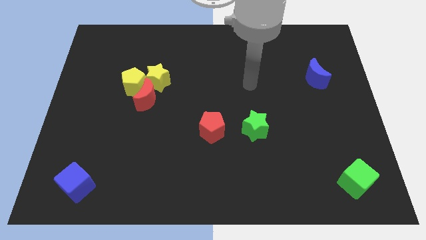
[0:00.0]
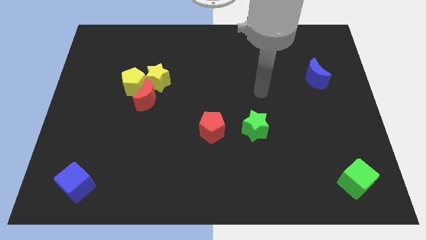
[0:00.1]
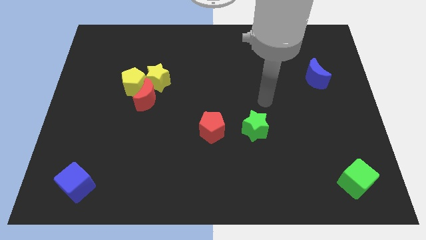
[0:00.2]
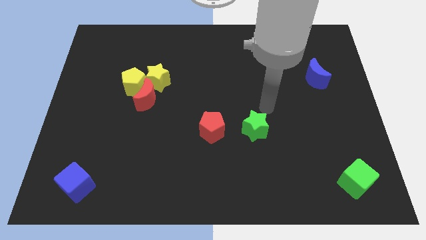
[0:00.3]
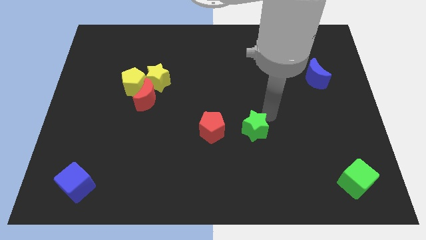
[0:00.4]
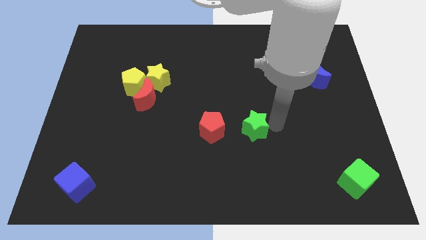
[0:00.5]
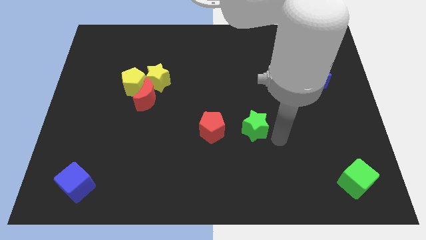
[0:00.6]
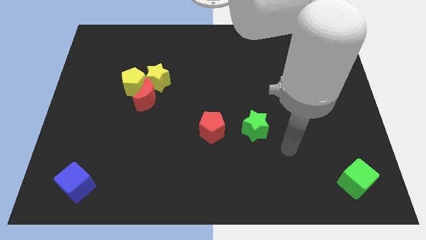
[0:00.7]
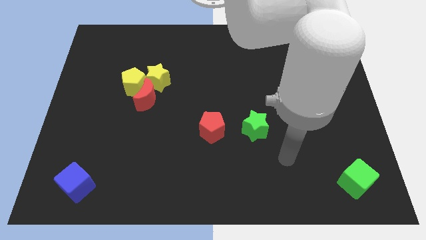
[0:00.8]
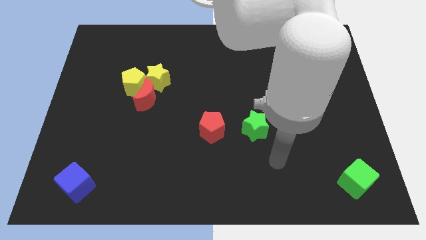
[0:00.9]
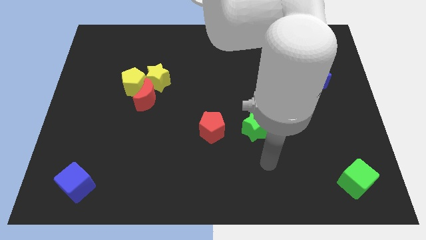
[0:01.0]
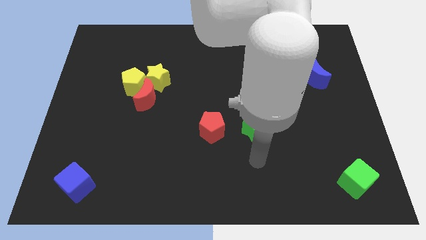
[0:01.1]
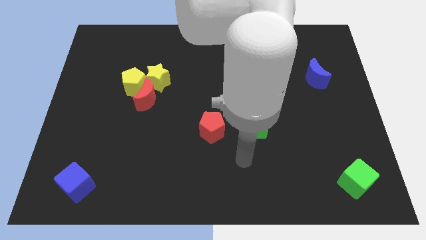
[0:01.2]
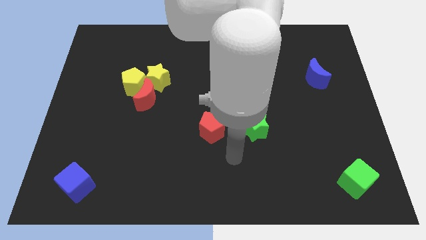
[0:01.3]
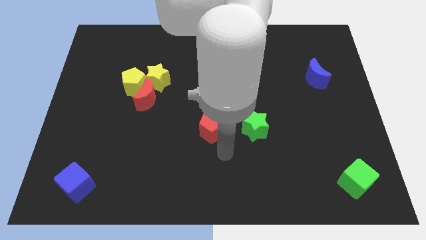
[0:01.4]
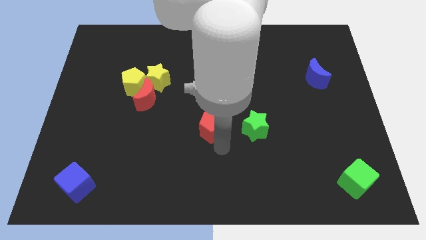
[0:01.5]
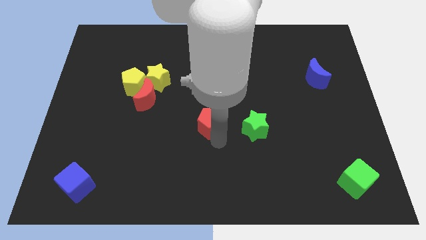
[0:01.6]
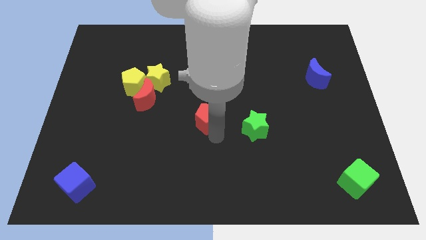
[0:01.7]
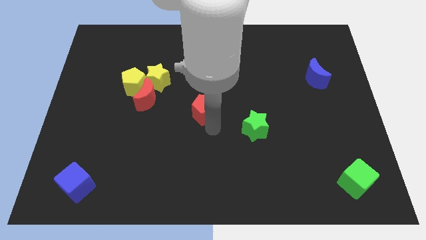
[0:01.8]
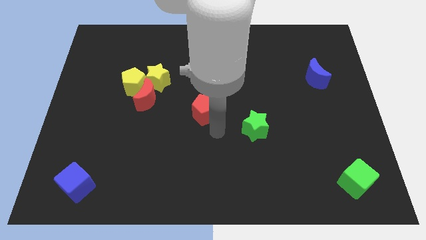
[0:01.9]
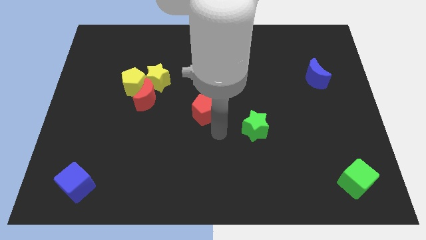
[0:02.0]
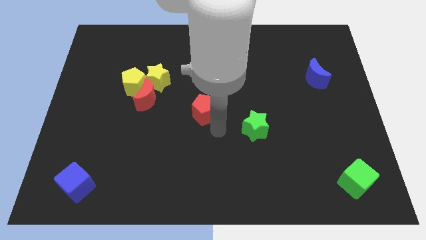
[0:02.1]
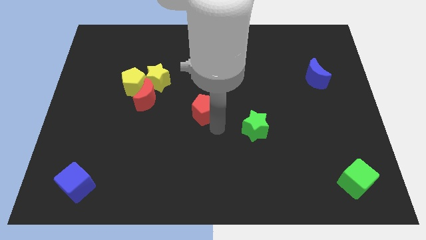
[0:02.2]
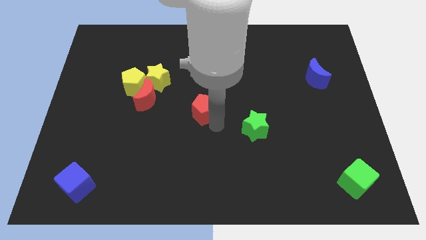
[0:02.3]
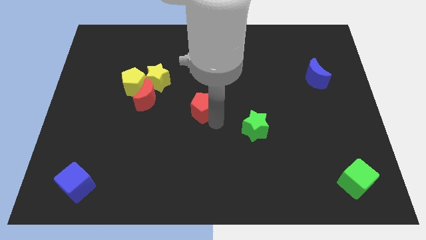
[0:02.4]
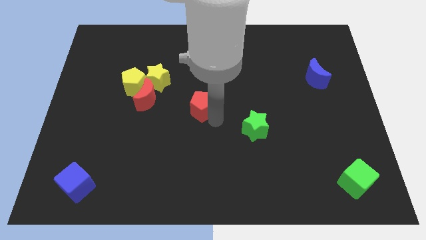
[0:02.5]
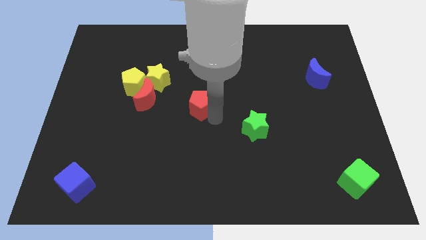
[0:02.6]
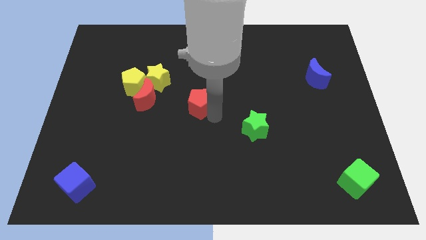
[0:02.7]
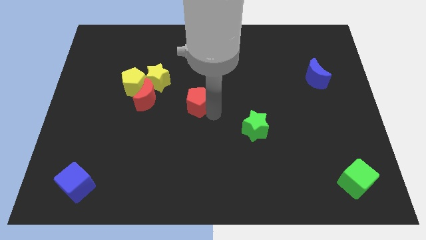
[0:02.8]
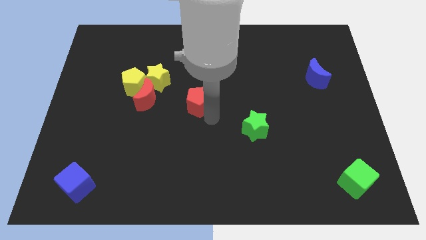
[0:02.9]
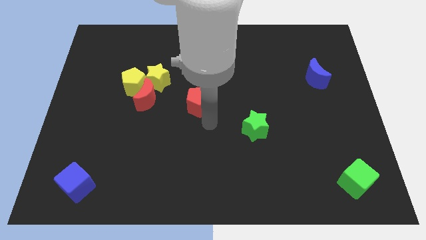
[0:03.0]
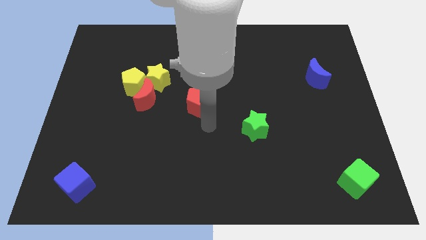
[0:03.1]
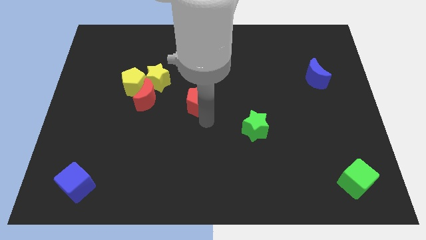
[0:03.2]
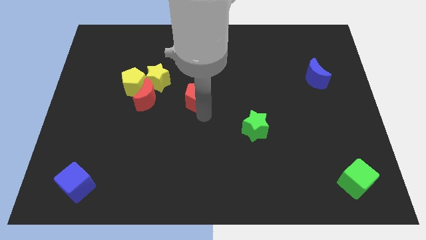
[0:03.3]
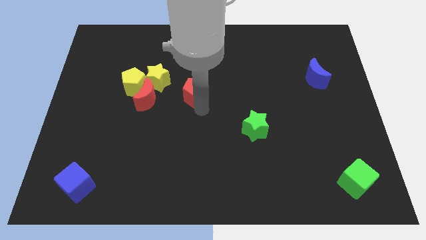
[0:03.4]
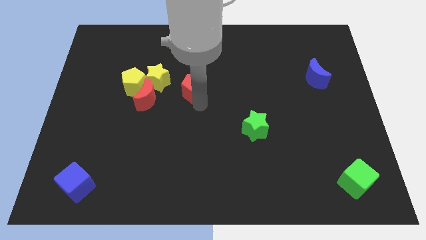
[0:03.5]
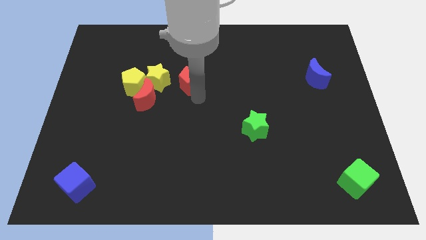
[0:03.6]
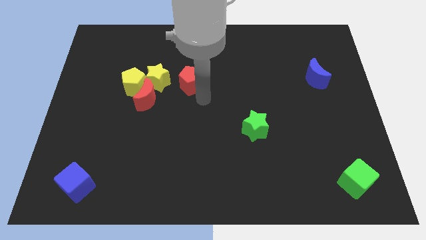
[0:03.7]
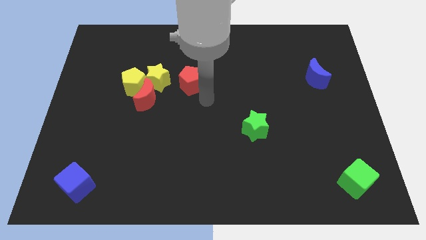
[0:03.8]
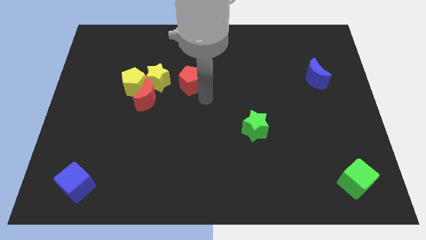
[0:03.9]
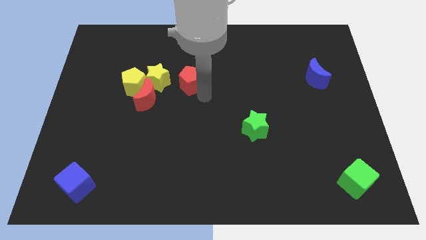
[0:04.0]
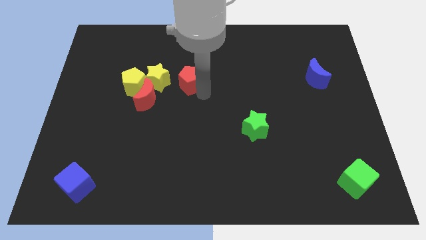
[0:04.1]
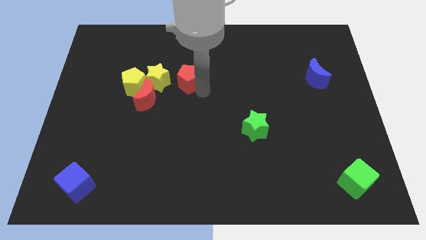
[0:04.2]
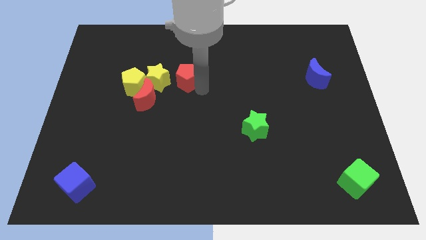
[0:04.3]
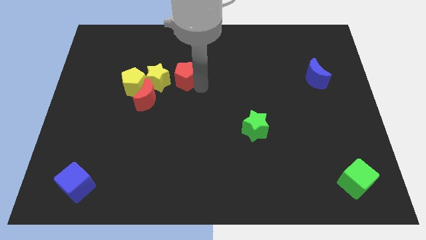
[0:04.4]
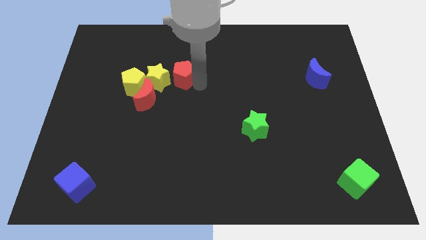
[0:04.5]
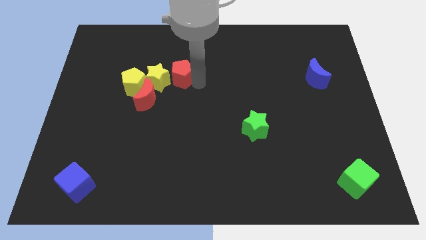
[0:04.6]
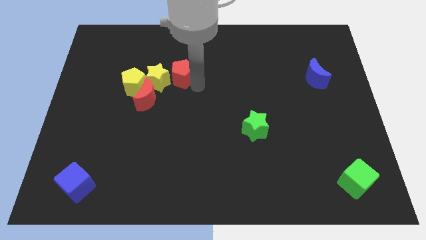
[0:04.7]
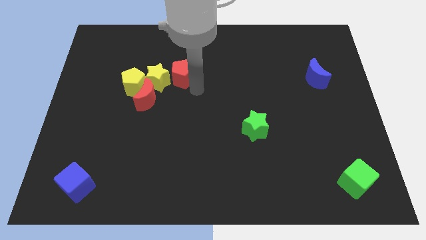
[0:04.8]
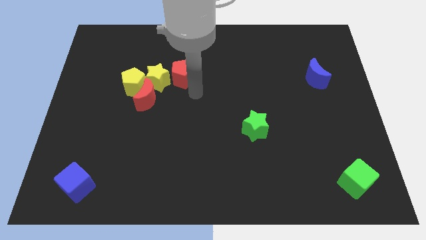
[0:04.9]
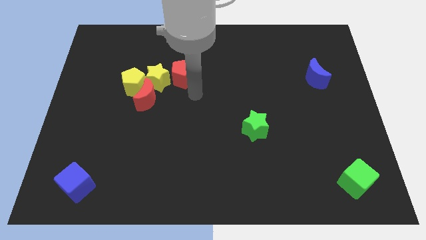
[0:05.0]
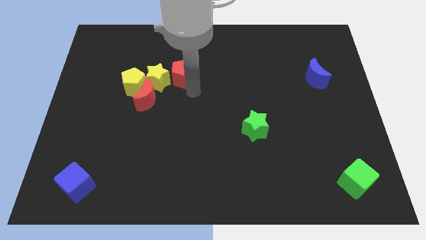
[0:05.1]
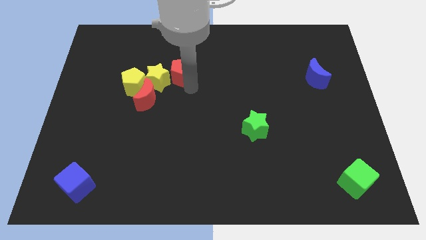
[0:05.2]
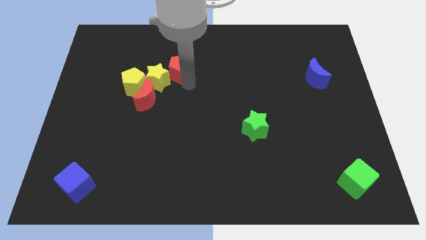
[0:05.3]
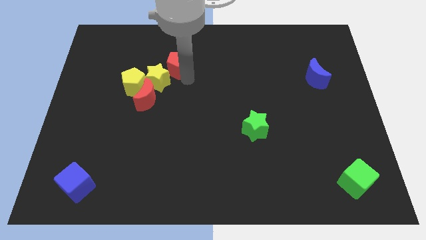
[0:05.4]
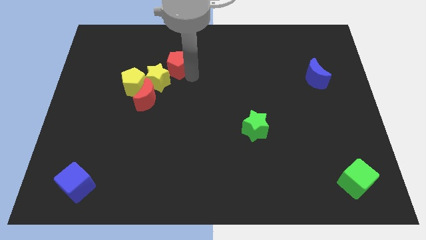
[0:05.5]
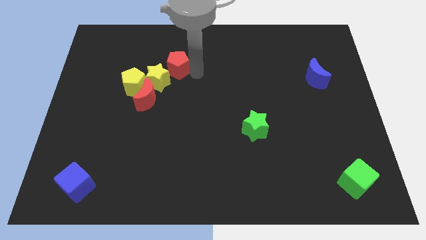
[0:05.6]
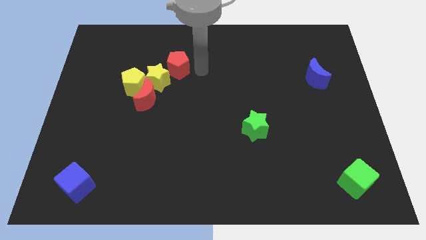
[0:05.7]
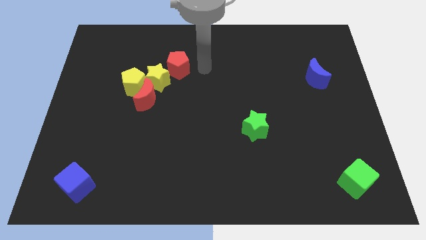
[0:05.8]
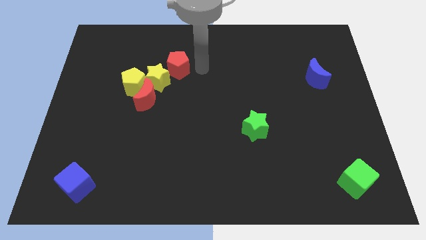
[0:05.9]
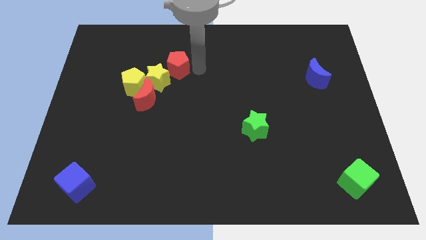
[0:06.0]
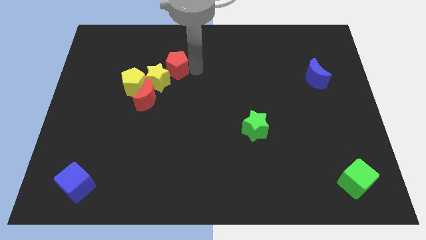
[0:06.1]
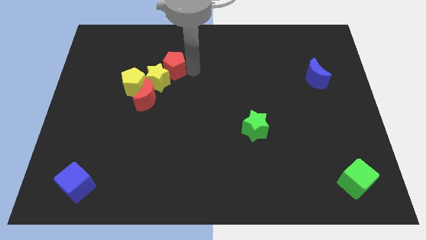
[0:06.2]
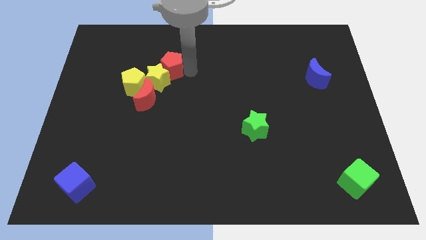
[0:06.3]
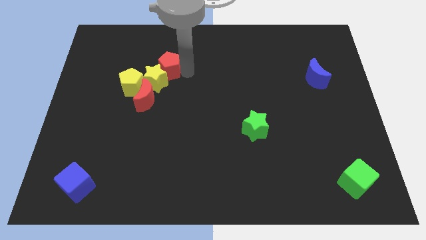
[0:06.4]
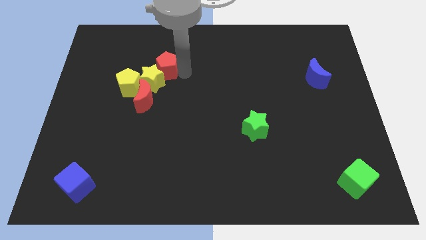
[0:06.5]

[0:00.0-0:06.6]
push the red pentagon to the top of the red moon
